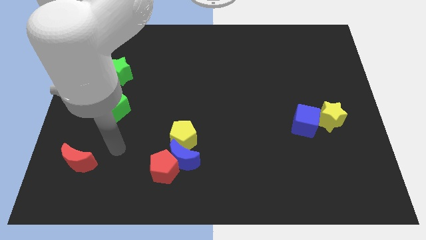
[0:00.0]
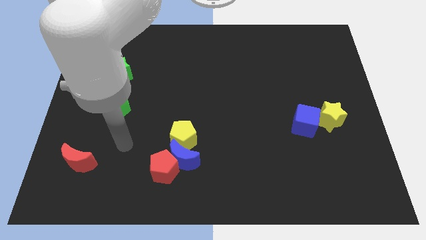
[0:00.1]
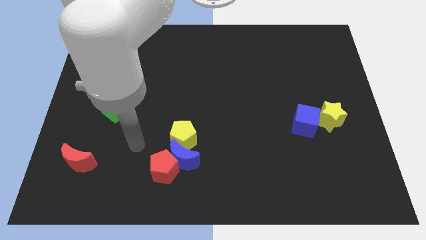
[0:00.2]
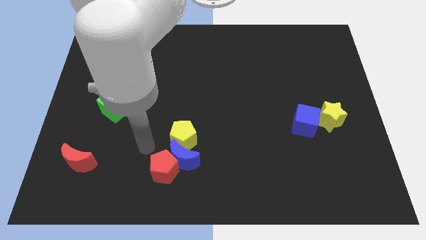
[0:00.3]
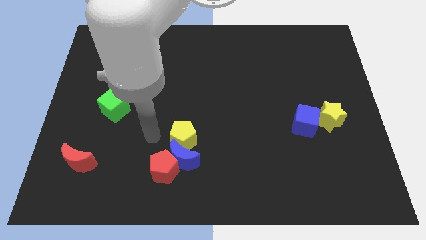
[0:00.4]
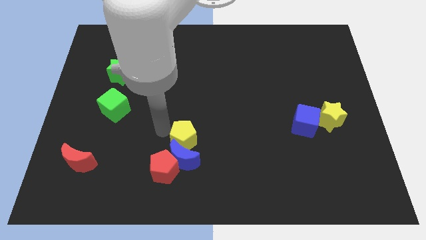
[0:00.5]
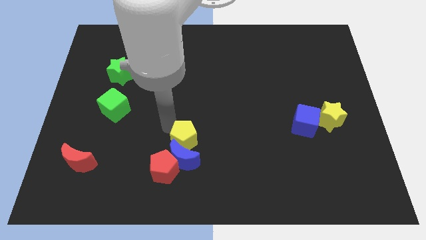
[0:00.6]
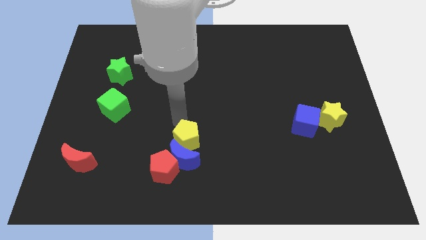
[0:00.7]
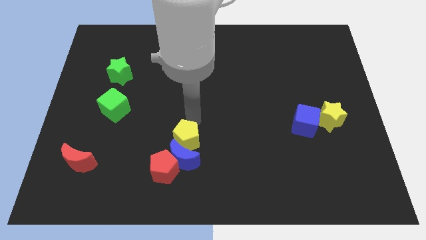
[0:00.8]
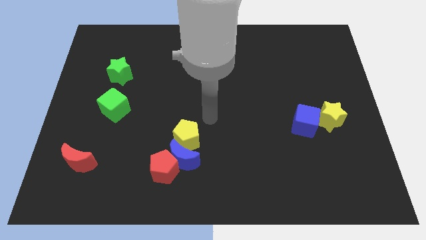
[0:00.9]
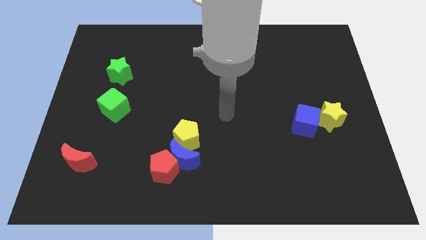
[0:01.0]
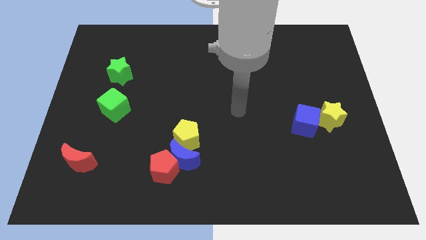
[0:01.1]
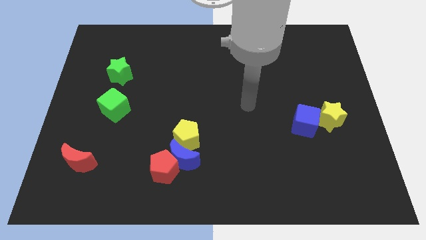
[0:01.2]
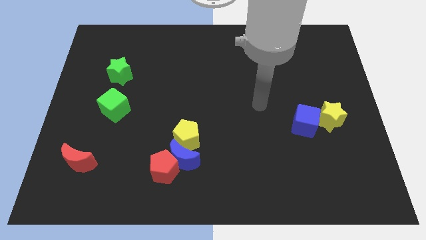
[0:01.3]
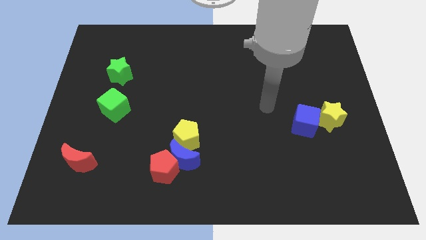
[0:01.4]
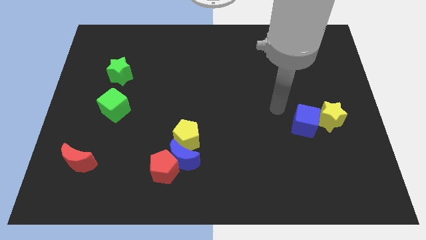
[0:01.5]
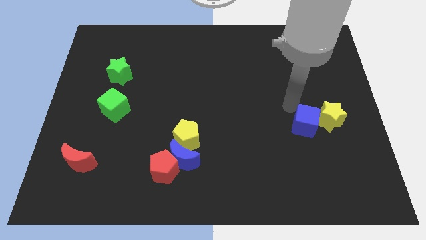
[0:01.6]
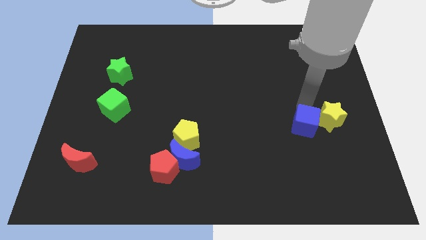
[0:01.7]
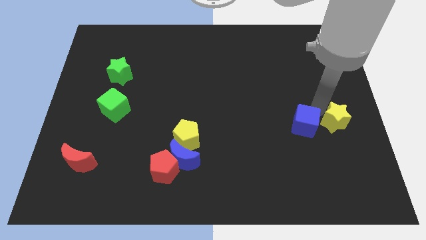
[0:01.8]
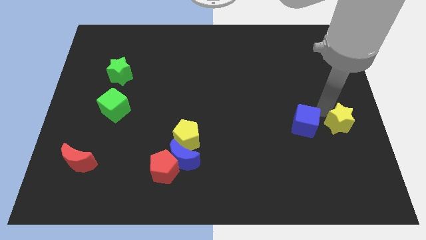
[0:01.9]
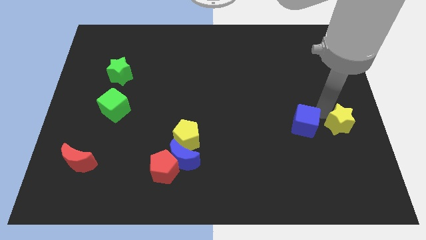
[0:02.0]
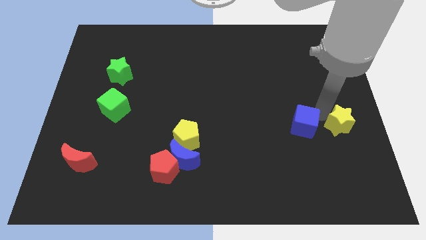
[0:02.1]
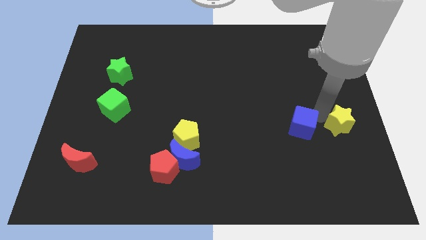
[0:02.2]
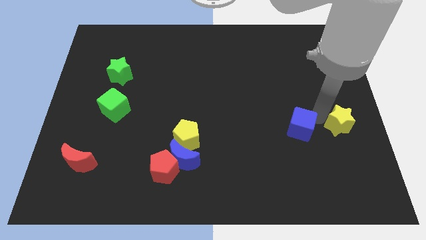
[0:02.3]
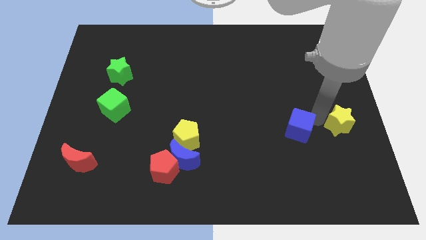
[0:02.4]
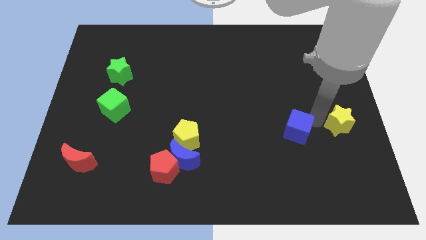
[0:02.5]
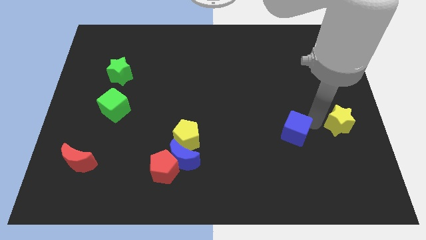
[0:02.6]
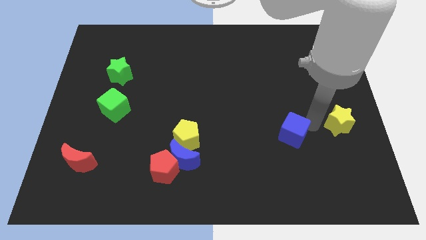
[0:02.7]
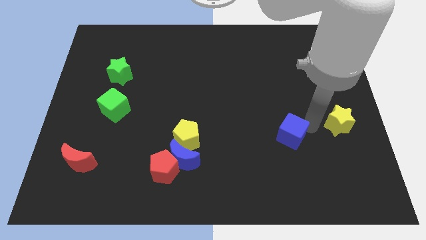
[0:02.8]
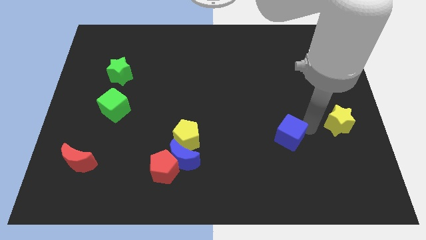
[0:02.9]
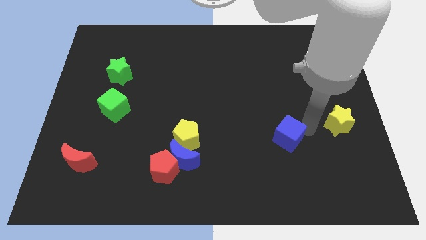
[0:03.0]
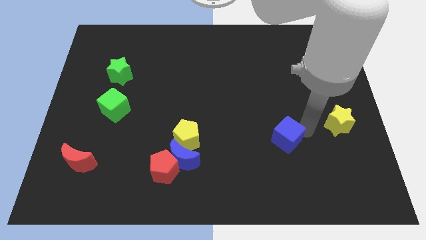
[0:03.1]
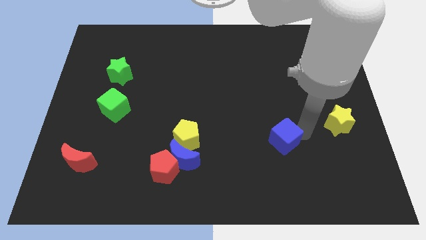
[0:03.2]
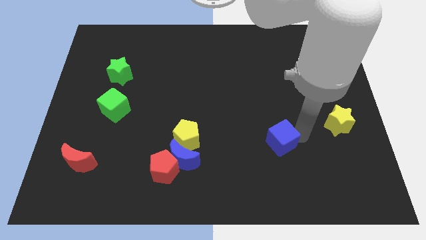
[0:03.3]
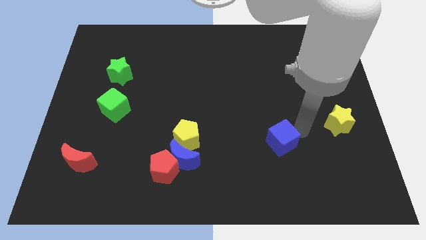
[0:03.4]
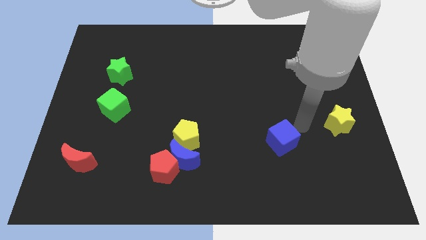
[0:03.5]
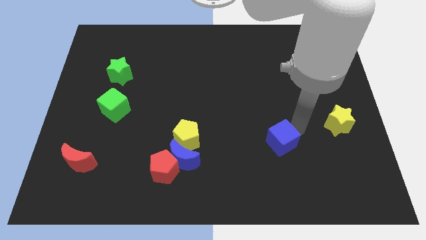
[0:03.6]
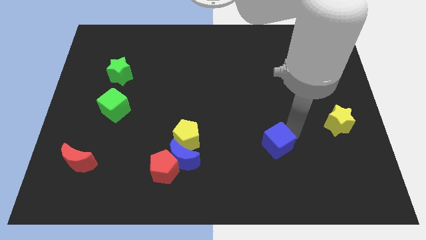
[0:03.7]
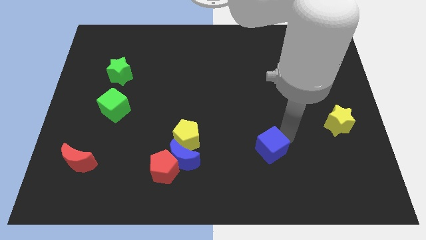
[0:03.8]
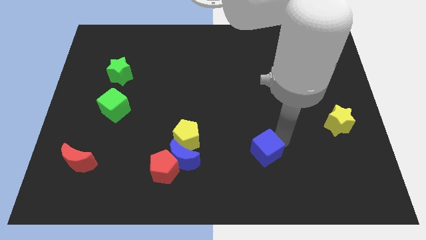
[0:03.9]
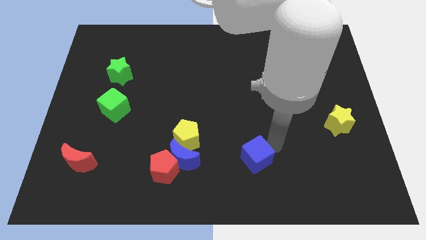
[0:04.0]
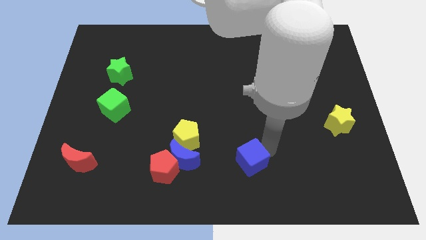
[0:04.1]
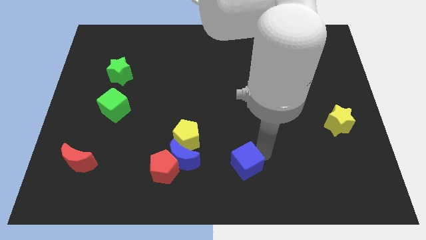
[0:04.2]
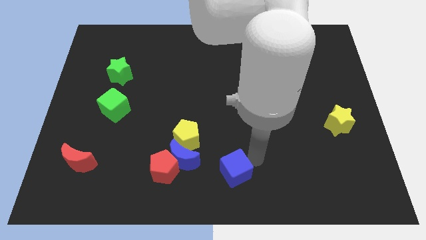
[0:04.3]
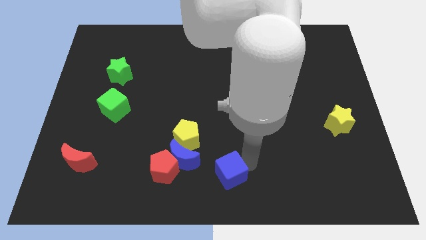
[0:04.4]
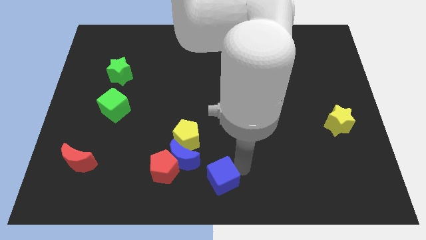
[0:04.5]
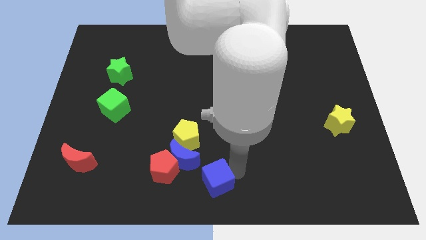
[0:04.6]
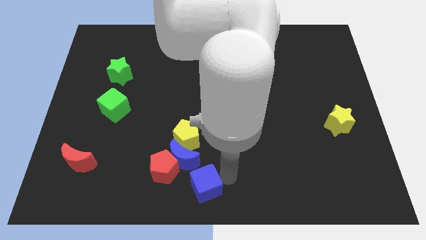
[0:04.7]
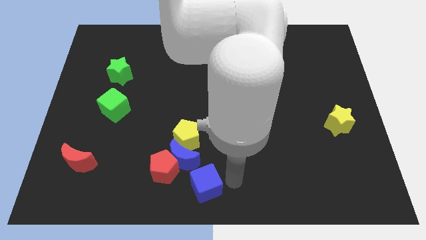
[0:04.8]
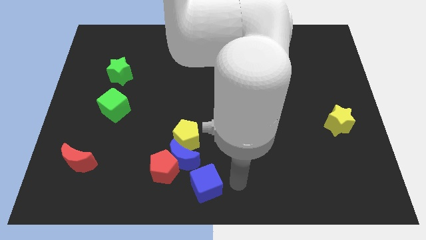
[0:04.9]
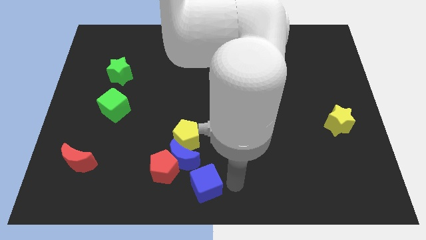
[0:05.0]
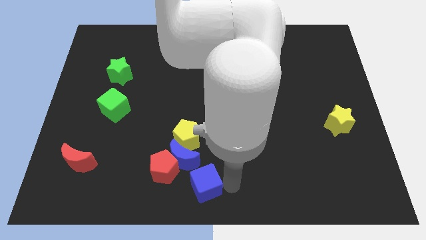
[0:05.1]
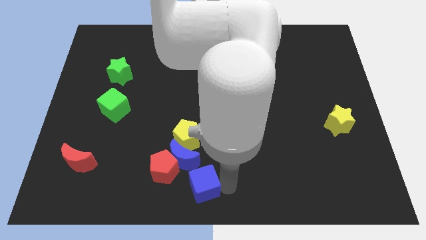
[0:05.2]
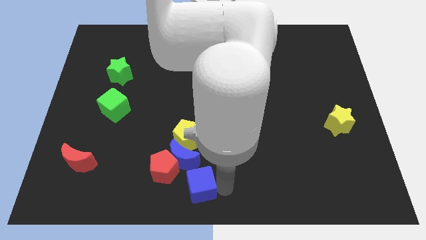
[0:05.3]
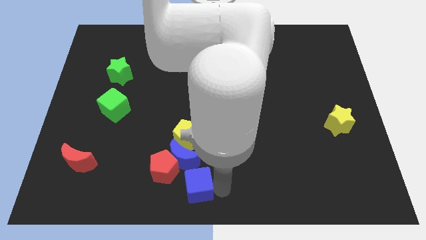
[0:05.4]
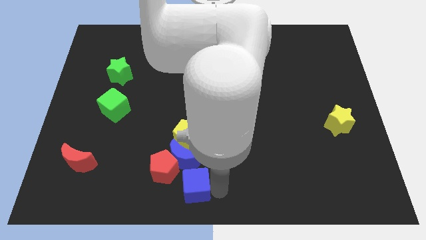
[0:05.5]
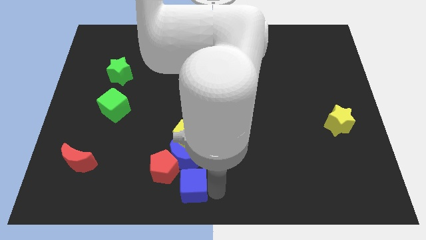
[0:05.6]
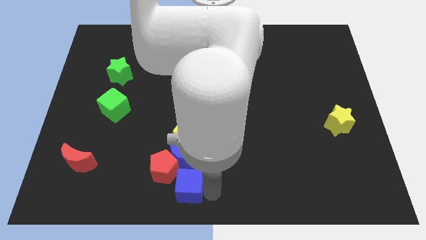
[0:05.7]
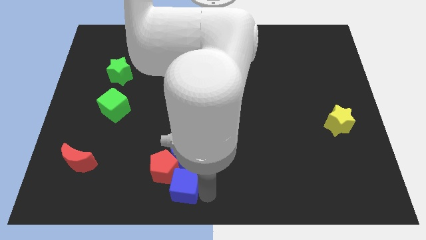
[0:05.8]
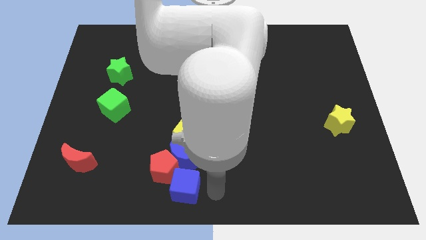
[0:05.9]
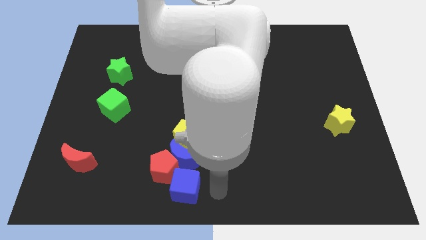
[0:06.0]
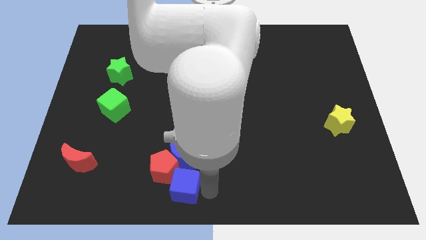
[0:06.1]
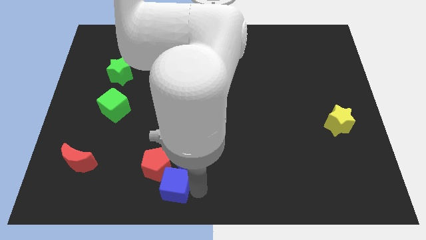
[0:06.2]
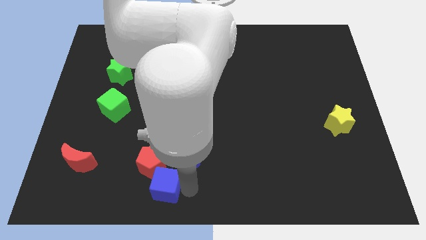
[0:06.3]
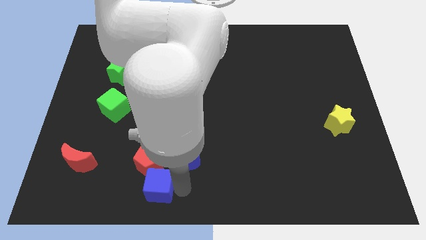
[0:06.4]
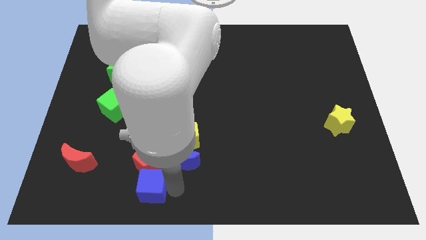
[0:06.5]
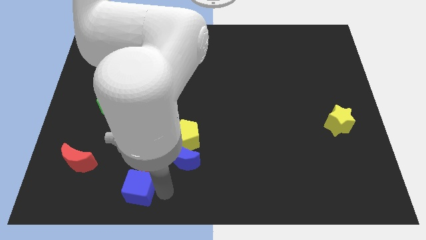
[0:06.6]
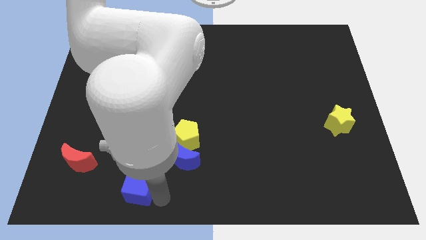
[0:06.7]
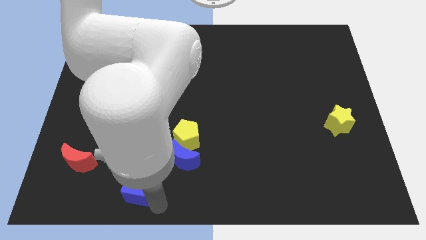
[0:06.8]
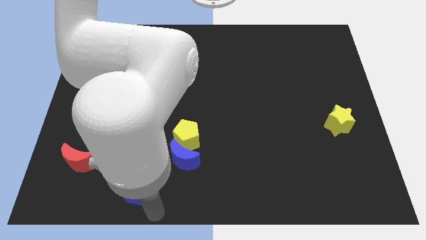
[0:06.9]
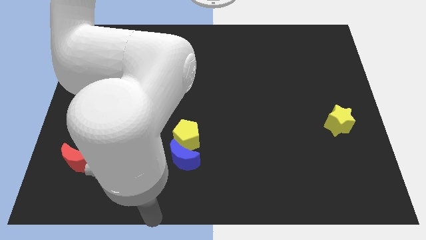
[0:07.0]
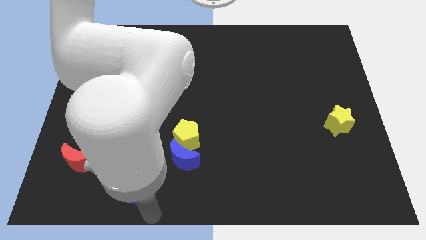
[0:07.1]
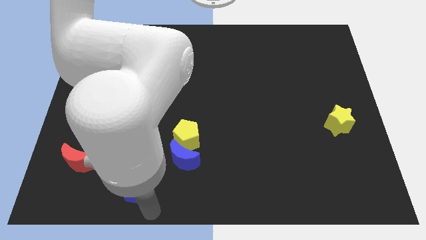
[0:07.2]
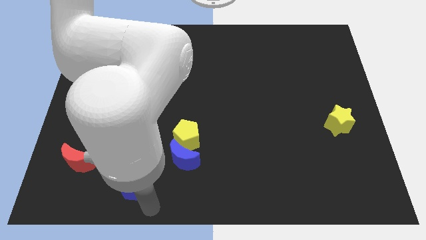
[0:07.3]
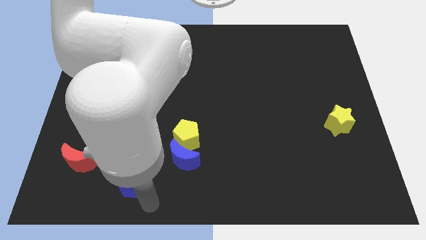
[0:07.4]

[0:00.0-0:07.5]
move the blue cube to the right of the red moon
